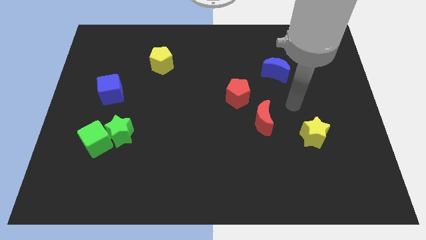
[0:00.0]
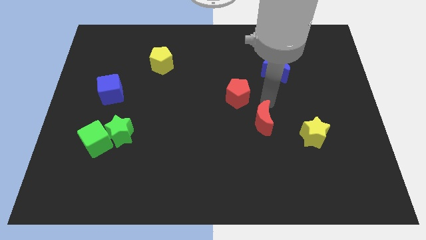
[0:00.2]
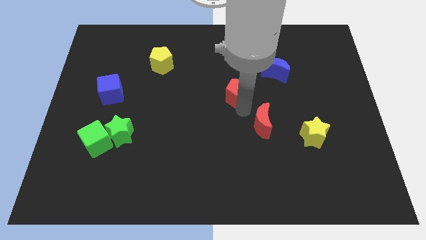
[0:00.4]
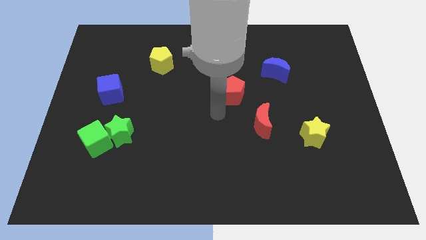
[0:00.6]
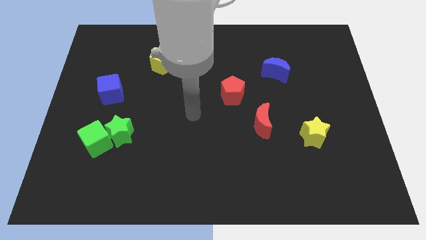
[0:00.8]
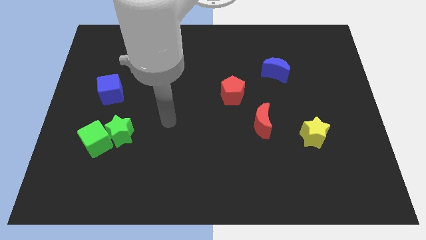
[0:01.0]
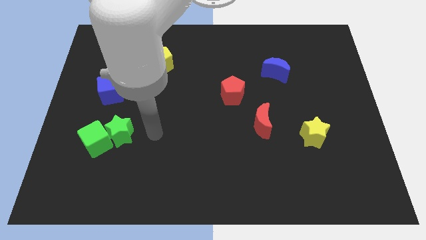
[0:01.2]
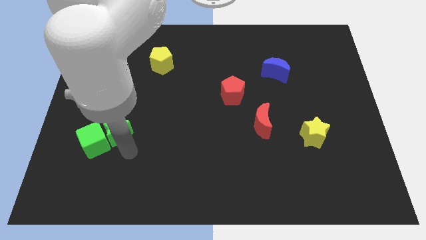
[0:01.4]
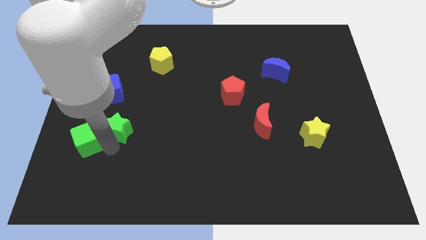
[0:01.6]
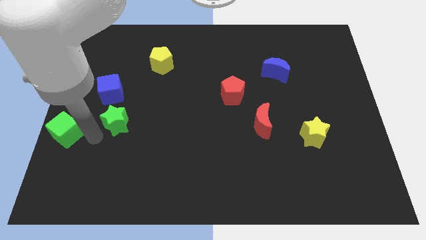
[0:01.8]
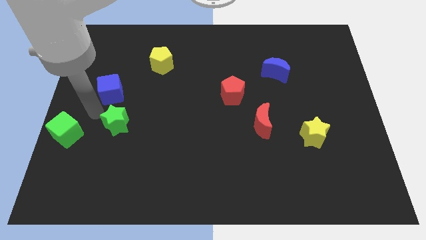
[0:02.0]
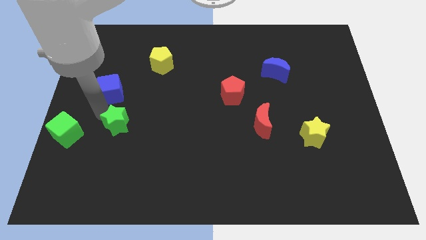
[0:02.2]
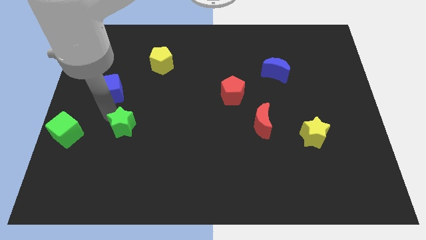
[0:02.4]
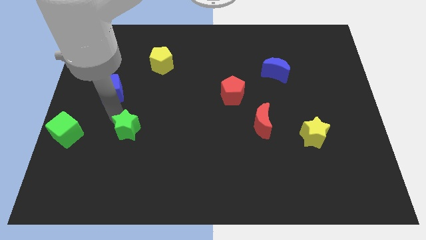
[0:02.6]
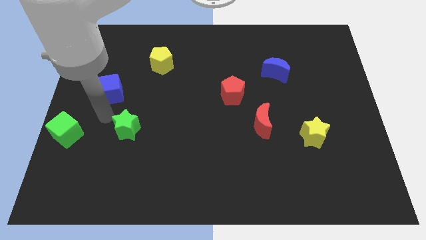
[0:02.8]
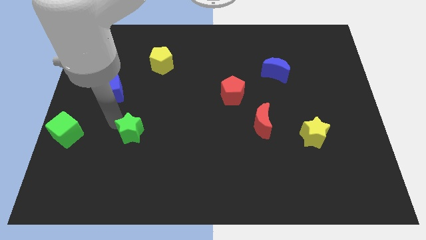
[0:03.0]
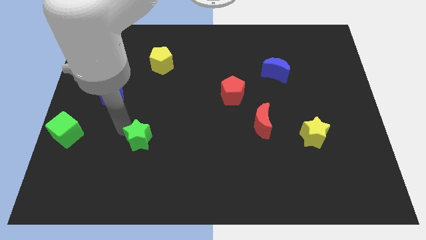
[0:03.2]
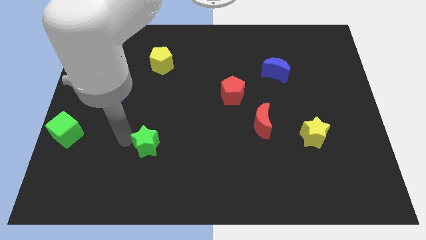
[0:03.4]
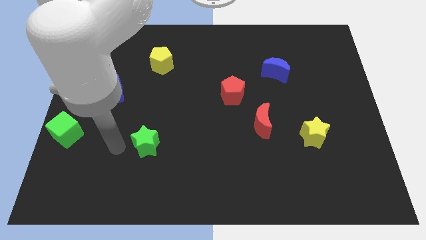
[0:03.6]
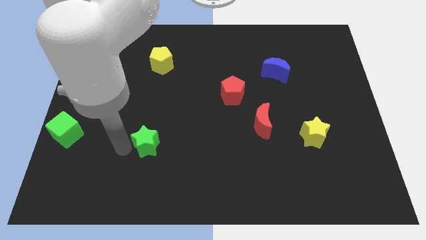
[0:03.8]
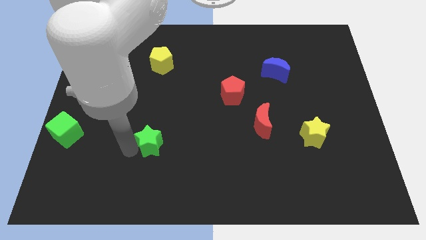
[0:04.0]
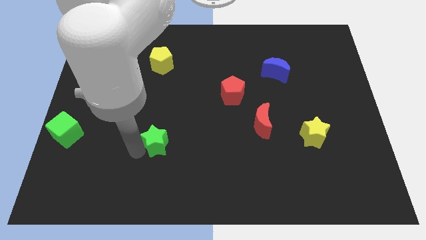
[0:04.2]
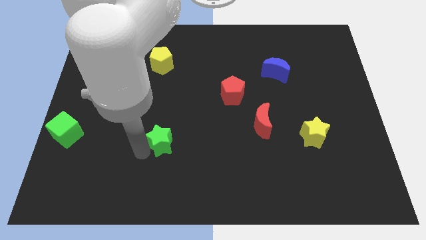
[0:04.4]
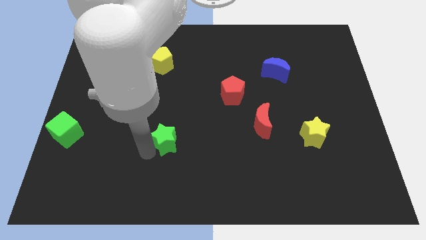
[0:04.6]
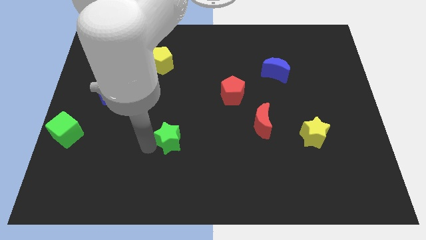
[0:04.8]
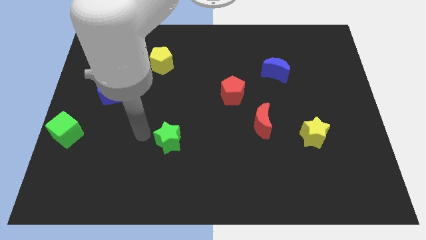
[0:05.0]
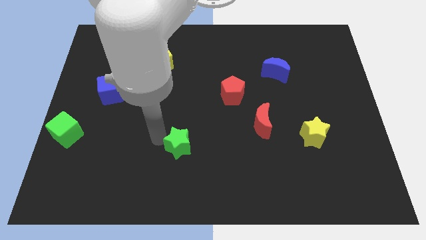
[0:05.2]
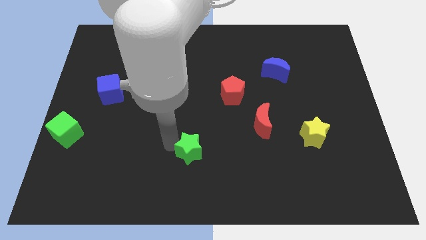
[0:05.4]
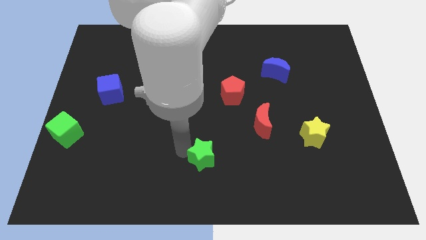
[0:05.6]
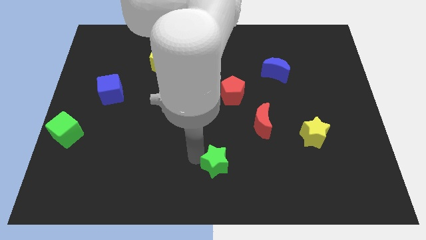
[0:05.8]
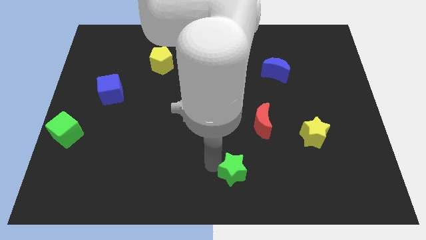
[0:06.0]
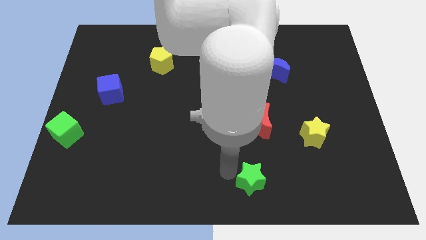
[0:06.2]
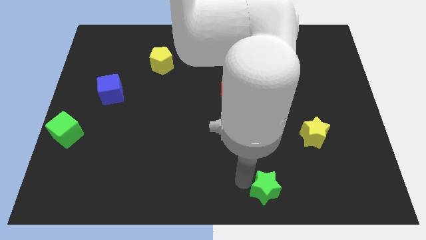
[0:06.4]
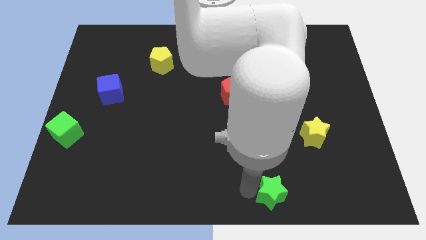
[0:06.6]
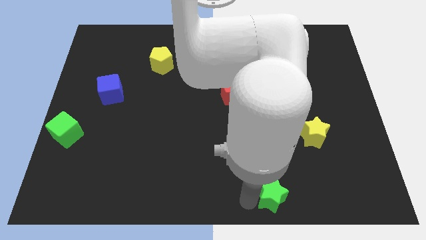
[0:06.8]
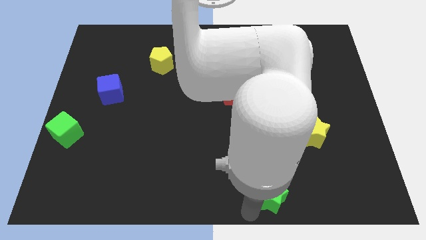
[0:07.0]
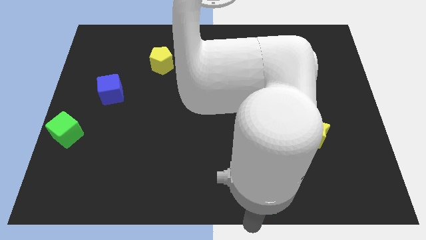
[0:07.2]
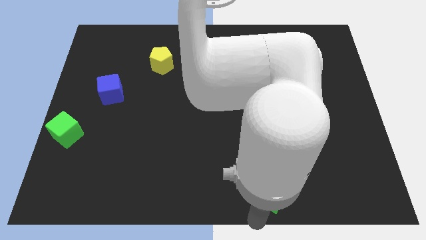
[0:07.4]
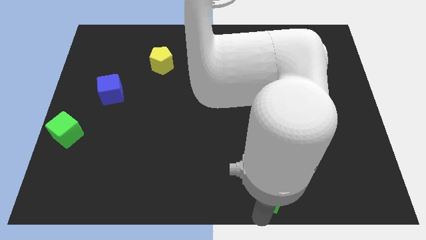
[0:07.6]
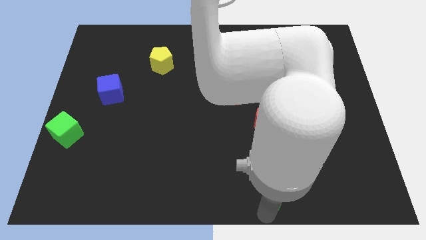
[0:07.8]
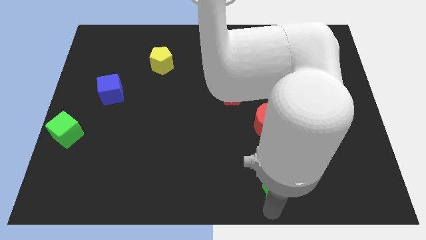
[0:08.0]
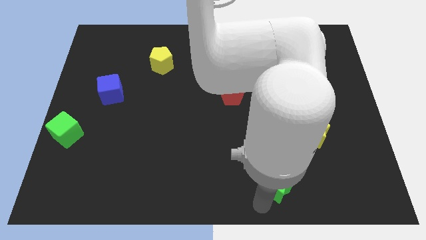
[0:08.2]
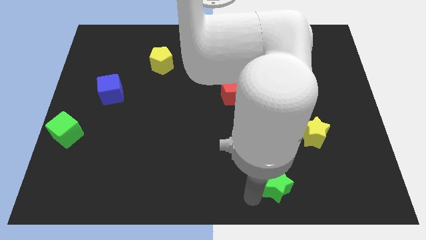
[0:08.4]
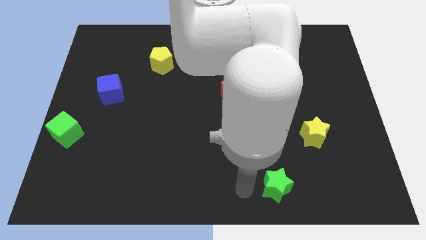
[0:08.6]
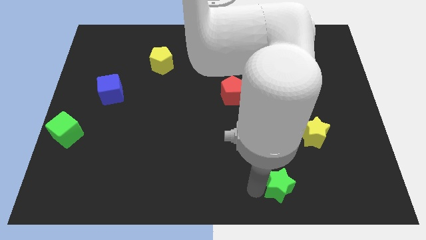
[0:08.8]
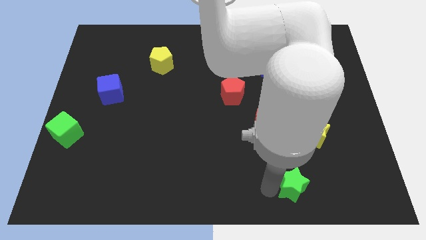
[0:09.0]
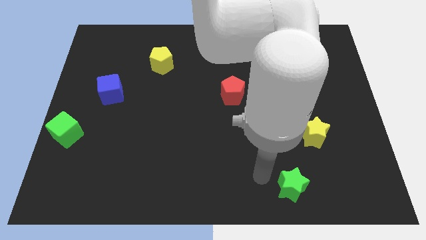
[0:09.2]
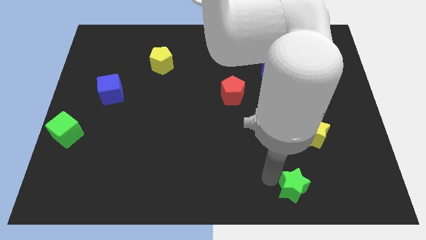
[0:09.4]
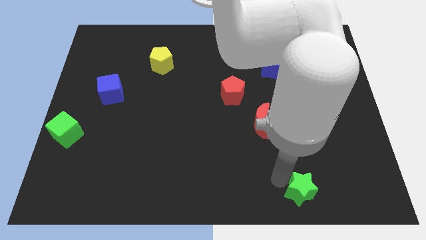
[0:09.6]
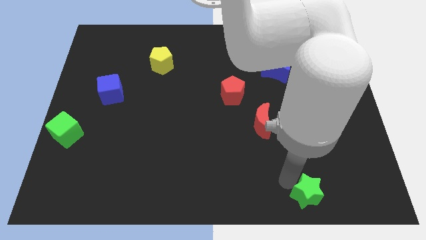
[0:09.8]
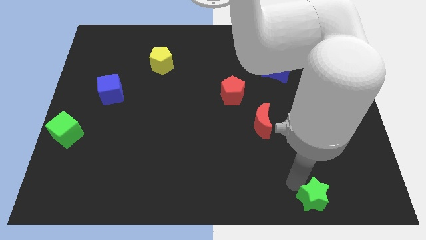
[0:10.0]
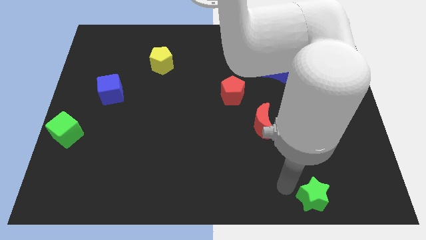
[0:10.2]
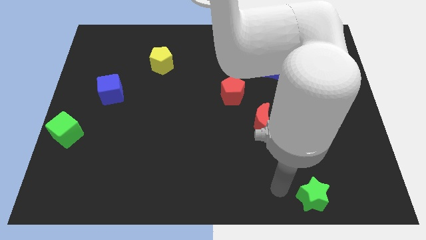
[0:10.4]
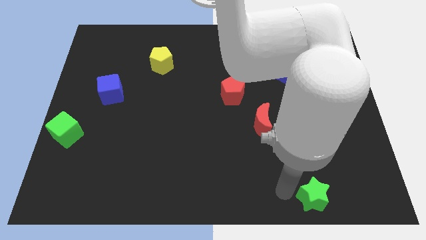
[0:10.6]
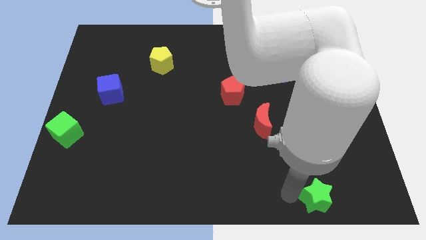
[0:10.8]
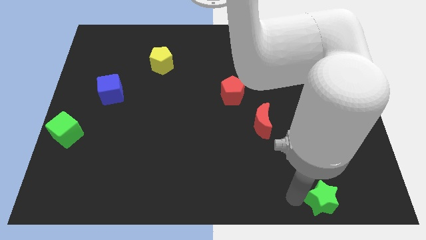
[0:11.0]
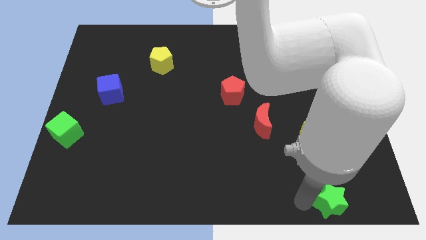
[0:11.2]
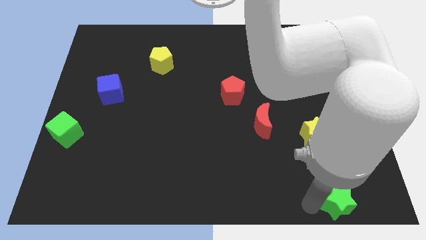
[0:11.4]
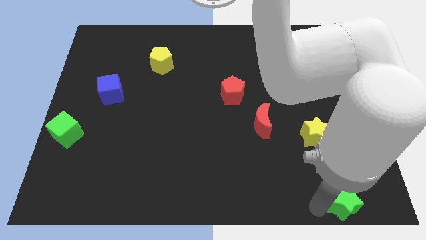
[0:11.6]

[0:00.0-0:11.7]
put the green star to the bottom right

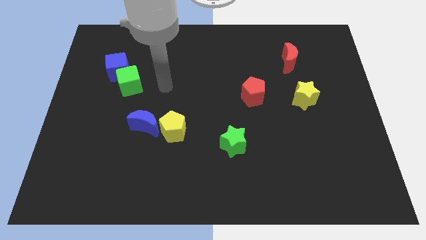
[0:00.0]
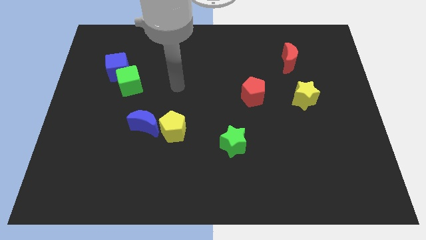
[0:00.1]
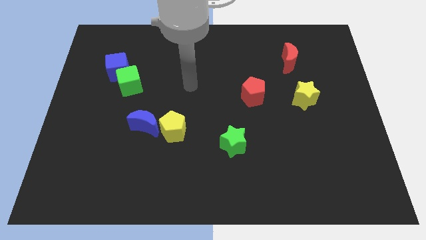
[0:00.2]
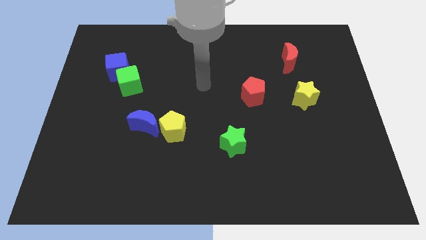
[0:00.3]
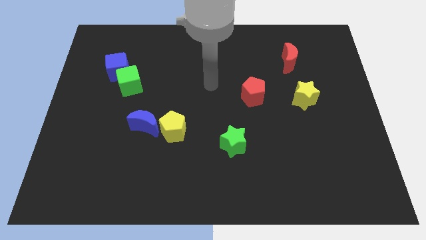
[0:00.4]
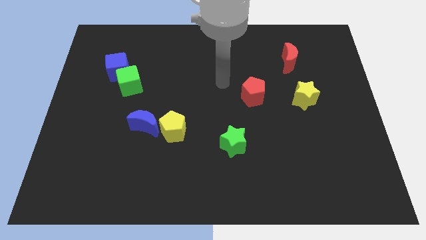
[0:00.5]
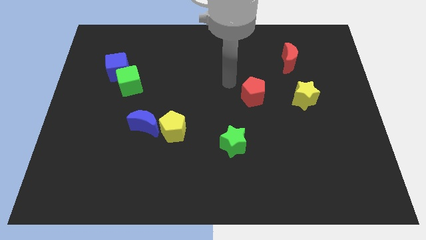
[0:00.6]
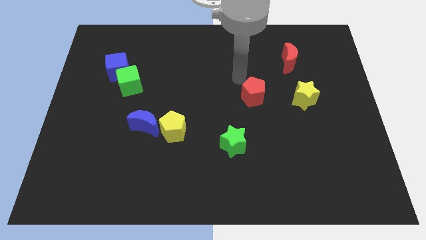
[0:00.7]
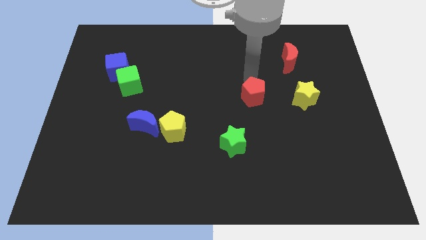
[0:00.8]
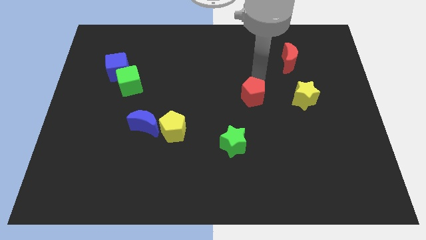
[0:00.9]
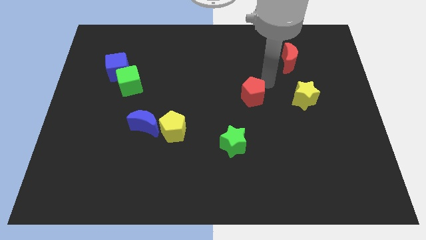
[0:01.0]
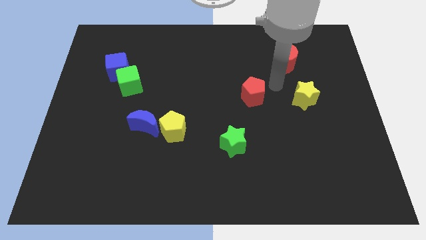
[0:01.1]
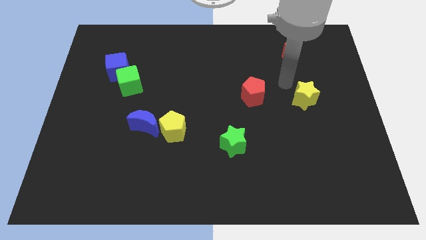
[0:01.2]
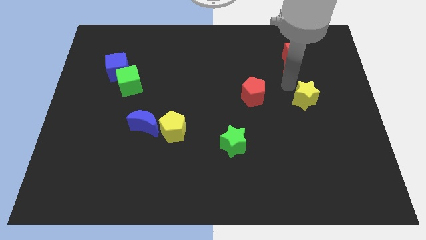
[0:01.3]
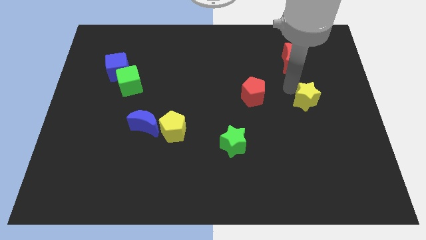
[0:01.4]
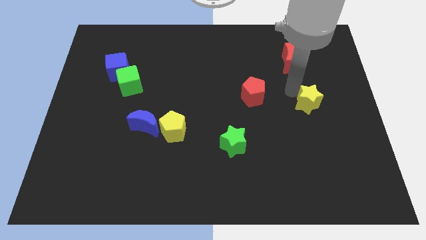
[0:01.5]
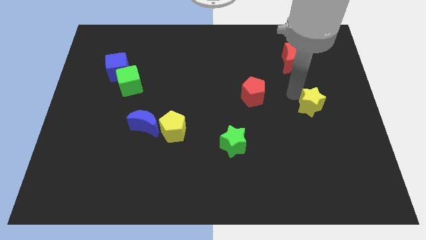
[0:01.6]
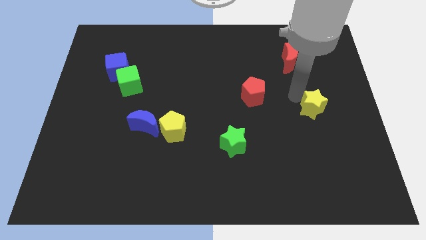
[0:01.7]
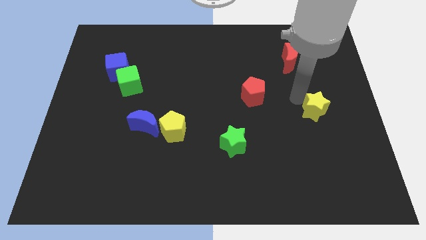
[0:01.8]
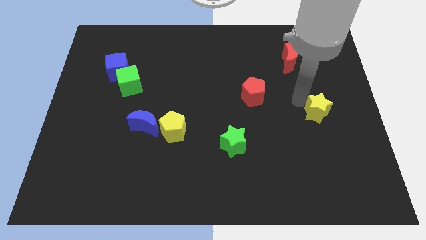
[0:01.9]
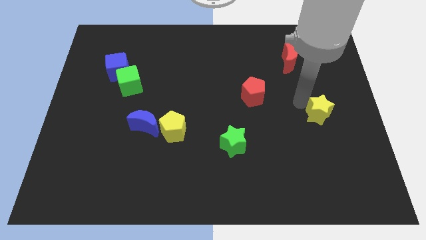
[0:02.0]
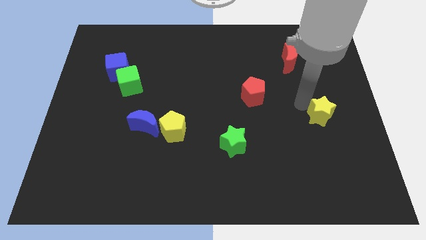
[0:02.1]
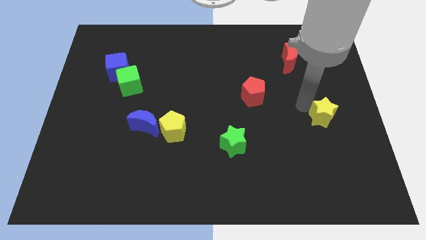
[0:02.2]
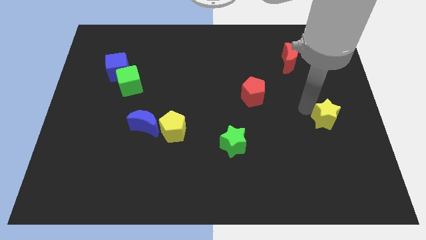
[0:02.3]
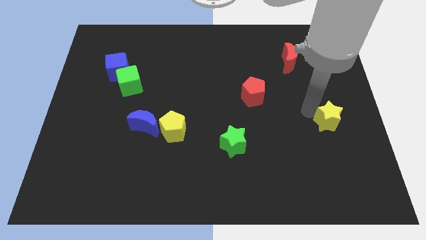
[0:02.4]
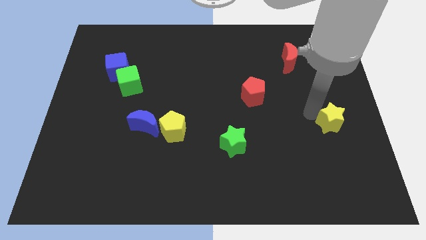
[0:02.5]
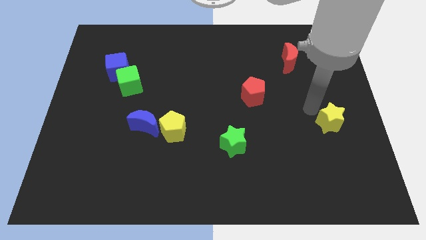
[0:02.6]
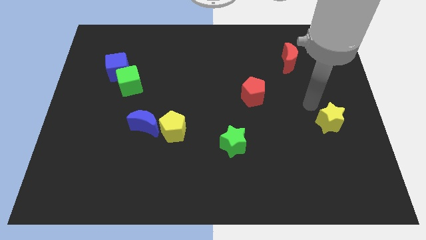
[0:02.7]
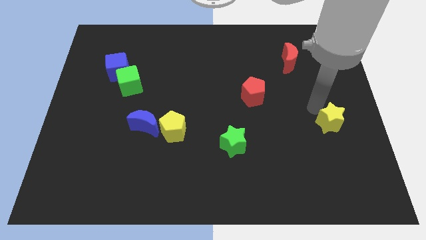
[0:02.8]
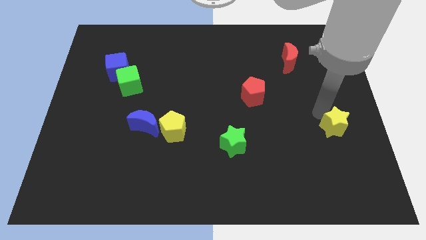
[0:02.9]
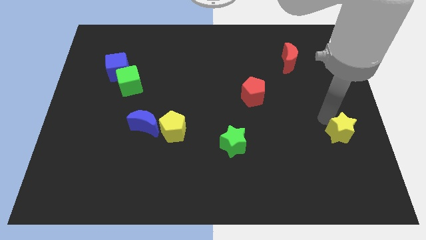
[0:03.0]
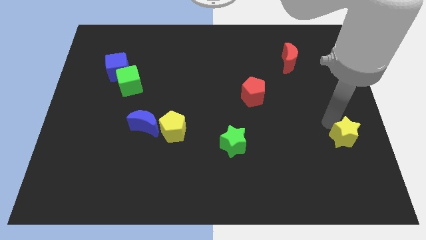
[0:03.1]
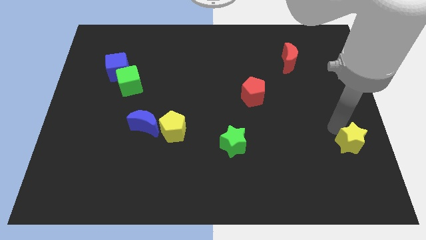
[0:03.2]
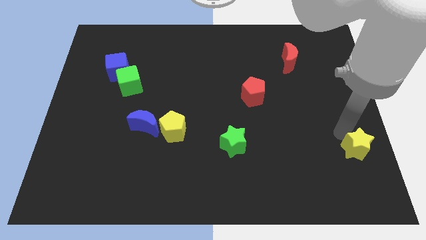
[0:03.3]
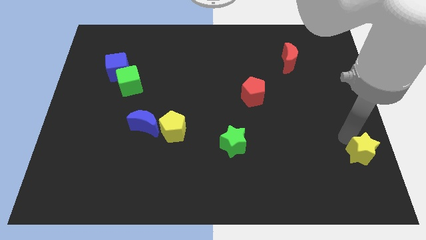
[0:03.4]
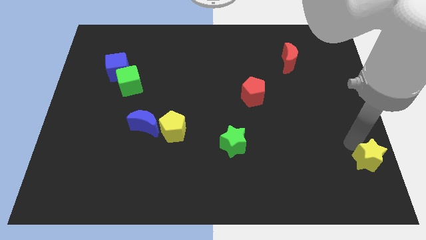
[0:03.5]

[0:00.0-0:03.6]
slide the yellow star to the bottom right corner
